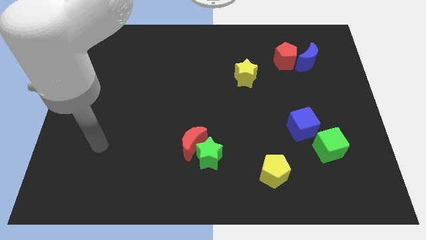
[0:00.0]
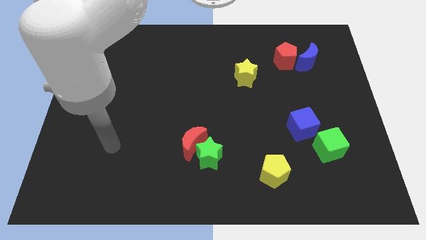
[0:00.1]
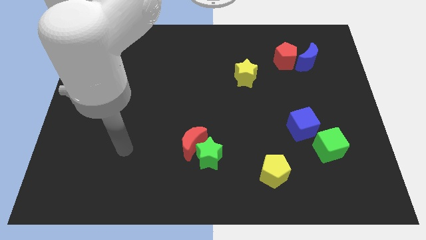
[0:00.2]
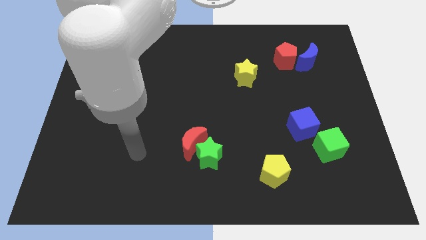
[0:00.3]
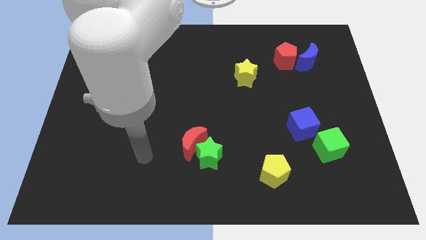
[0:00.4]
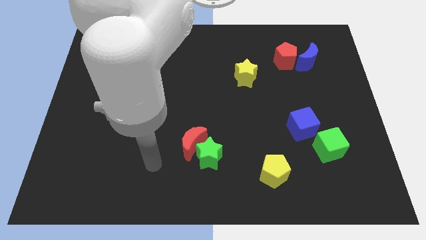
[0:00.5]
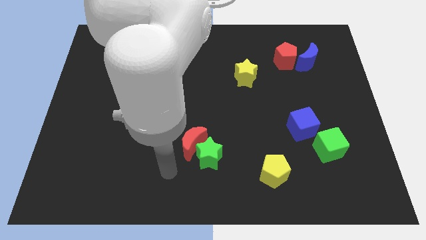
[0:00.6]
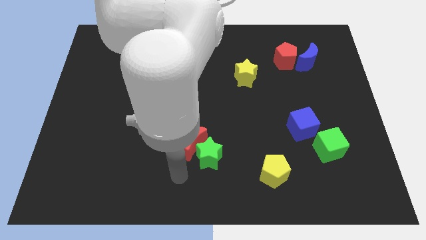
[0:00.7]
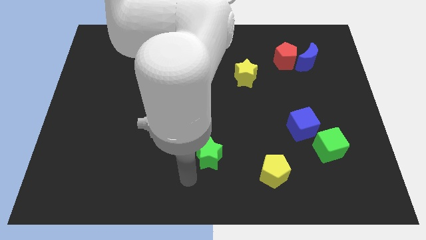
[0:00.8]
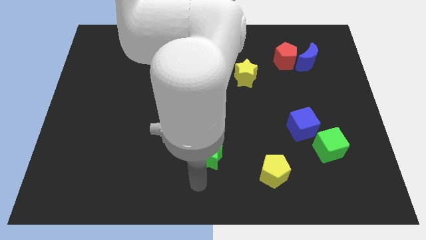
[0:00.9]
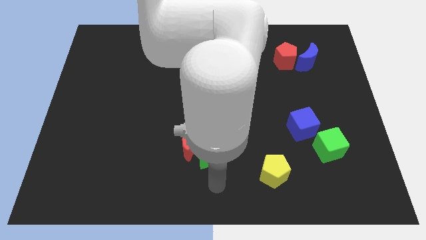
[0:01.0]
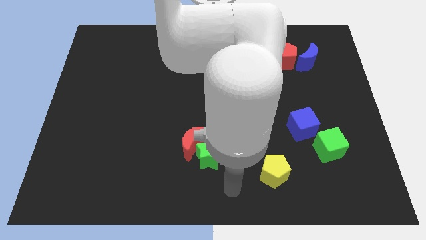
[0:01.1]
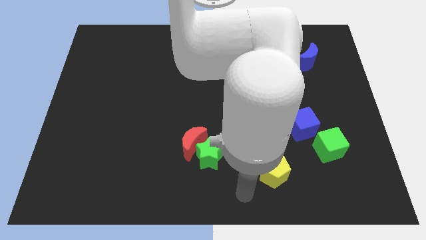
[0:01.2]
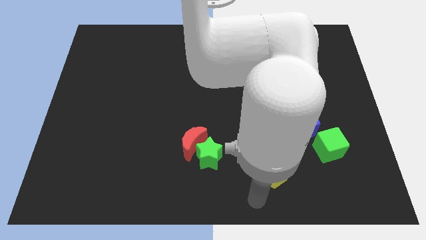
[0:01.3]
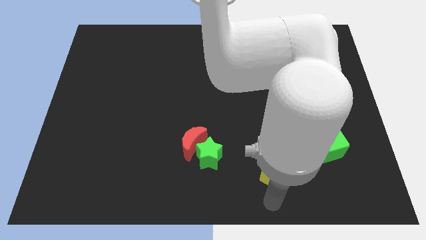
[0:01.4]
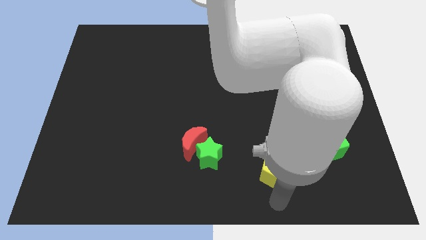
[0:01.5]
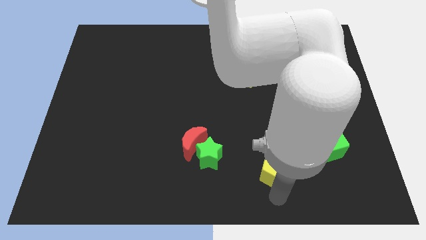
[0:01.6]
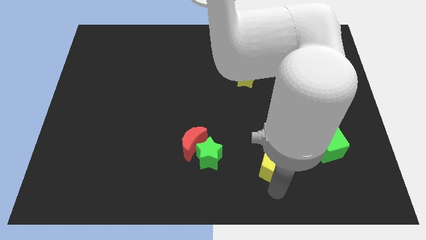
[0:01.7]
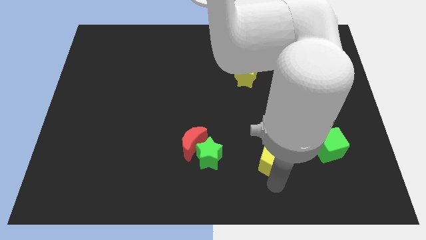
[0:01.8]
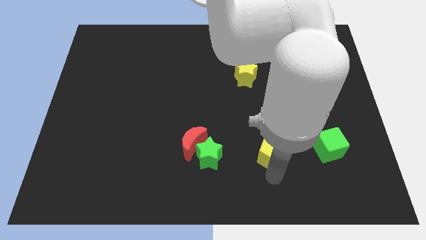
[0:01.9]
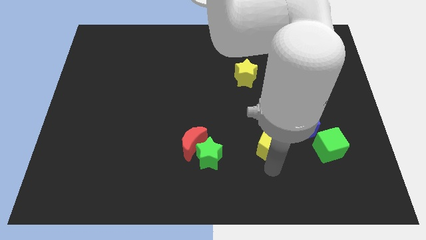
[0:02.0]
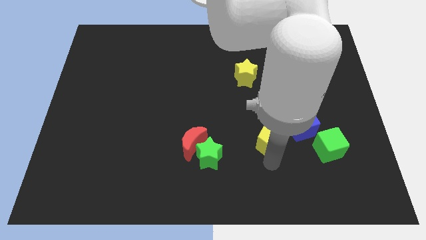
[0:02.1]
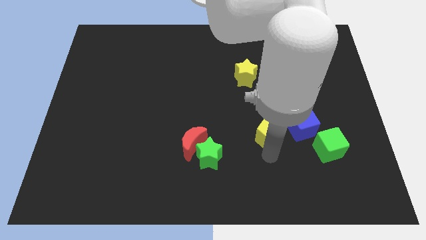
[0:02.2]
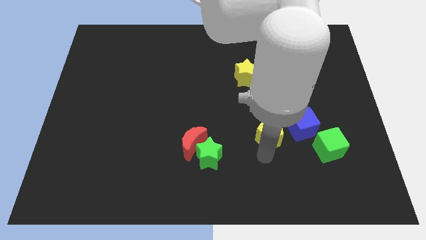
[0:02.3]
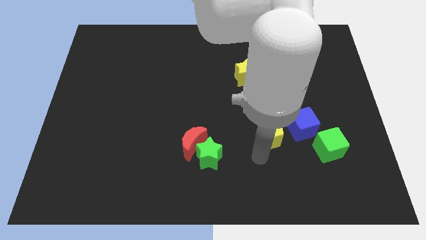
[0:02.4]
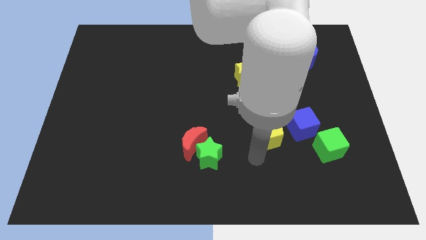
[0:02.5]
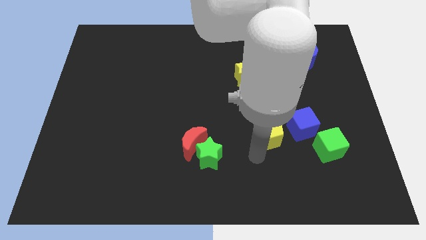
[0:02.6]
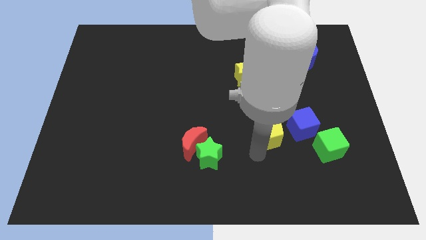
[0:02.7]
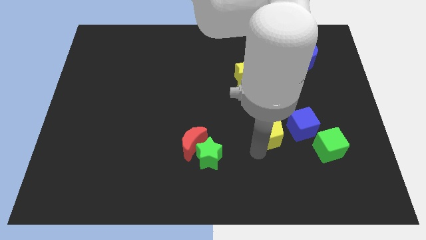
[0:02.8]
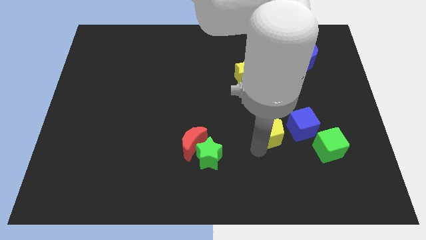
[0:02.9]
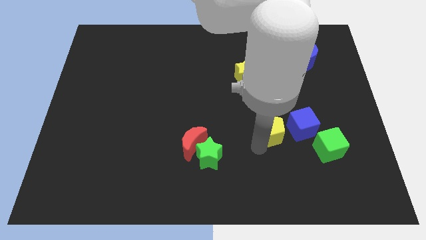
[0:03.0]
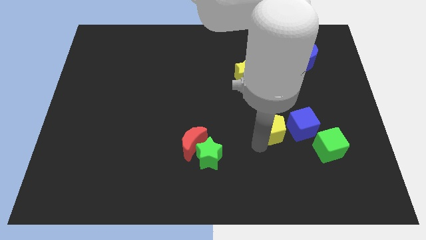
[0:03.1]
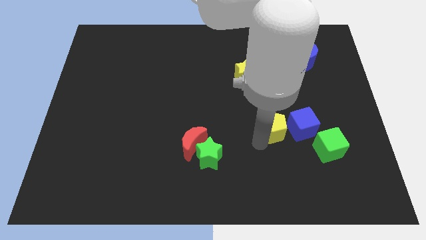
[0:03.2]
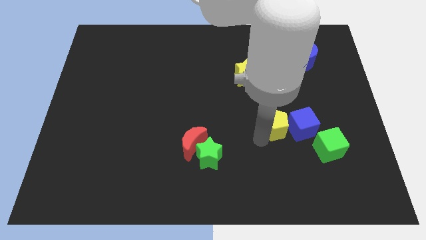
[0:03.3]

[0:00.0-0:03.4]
slightly push the yellow pentagon upwards and right

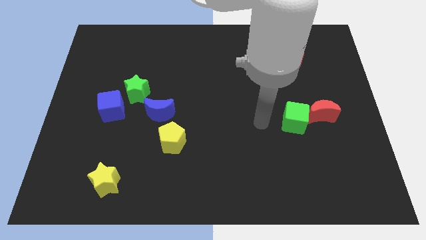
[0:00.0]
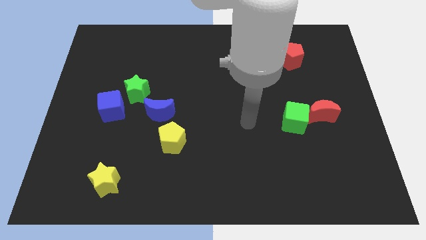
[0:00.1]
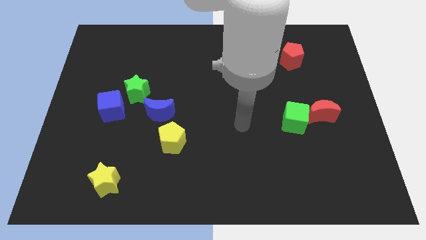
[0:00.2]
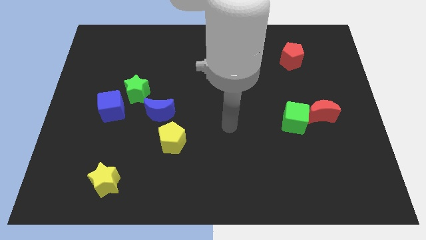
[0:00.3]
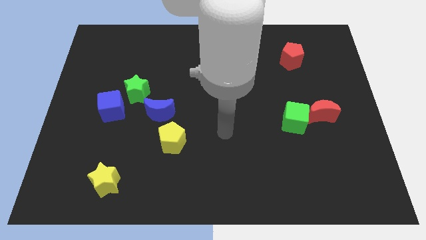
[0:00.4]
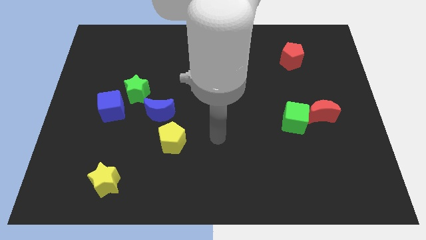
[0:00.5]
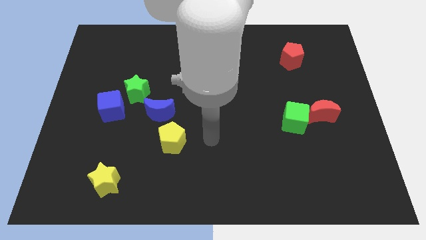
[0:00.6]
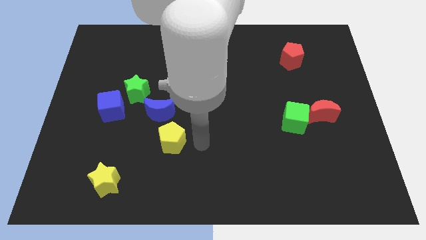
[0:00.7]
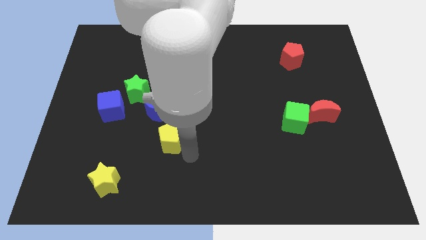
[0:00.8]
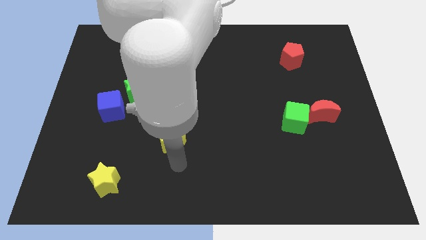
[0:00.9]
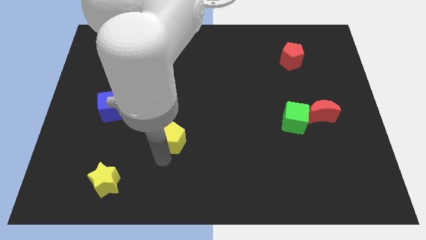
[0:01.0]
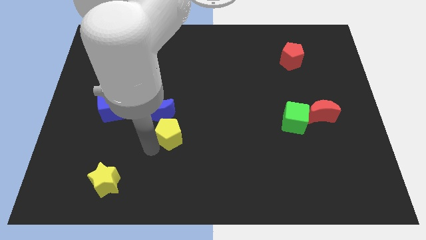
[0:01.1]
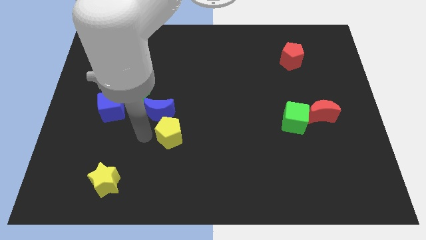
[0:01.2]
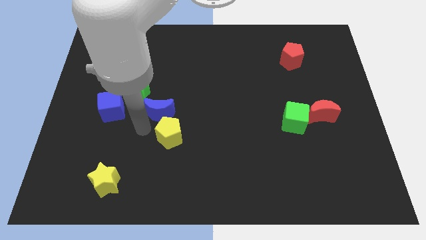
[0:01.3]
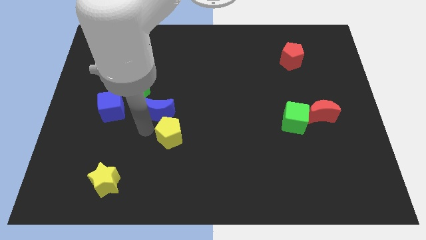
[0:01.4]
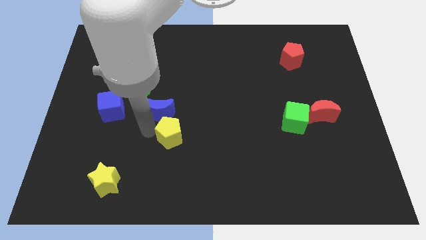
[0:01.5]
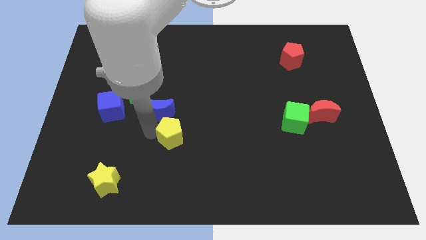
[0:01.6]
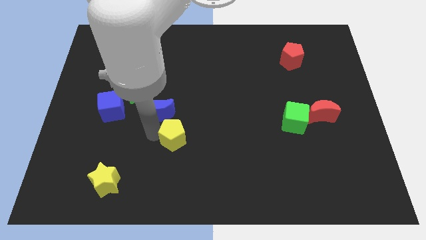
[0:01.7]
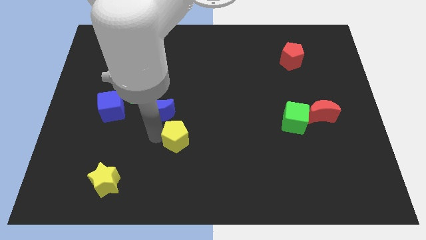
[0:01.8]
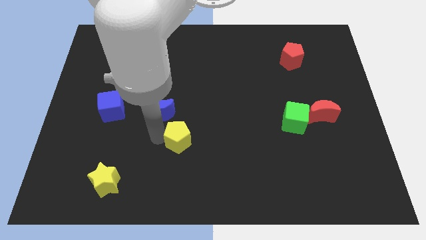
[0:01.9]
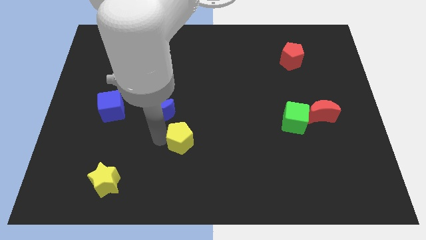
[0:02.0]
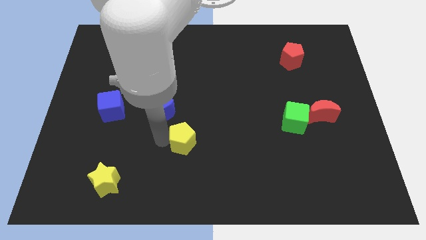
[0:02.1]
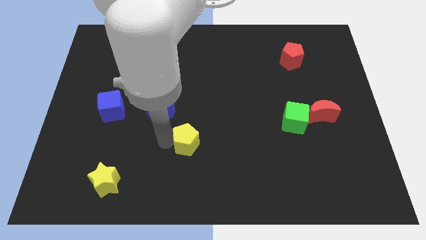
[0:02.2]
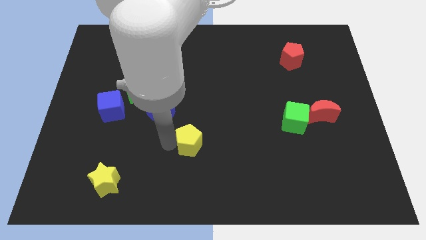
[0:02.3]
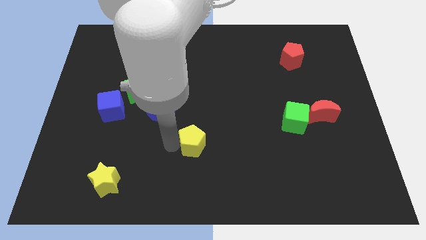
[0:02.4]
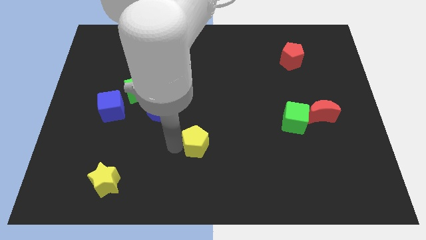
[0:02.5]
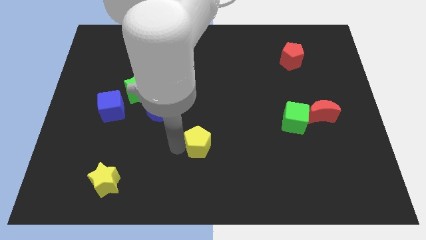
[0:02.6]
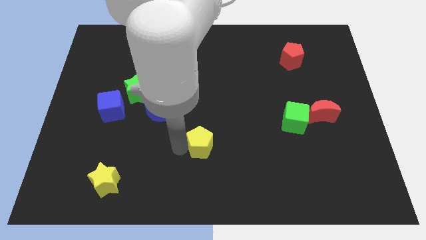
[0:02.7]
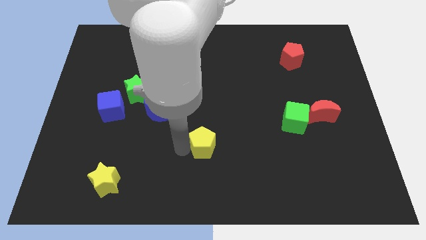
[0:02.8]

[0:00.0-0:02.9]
push the yellow pentagon somewhat right

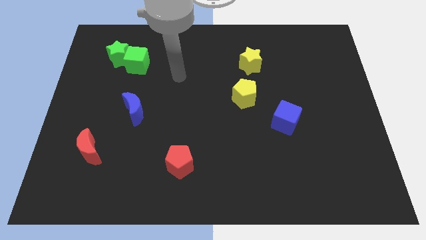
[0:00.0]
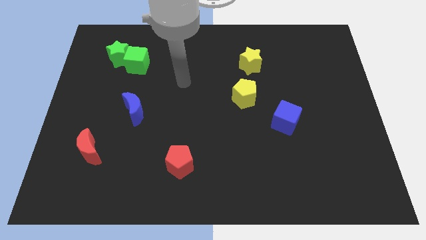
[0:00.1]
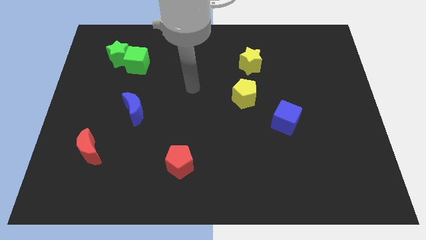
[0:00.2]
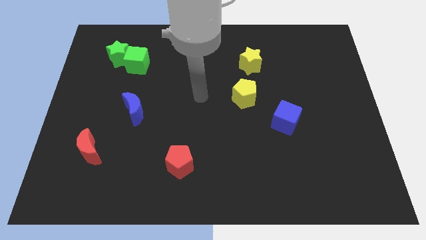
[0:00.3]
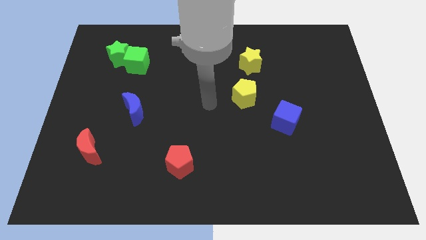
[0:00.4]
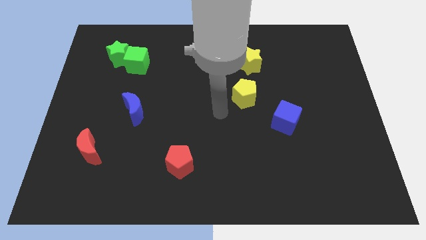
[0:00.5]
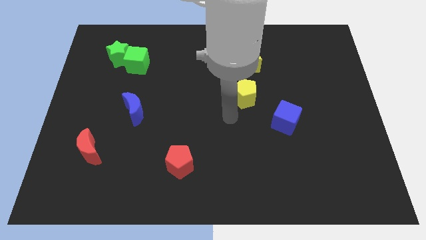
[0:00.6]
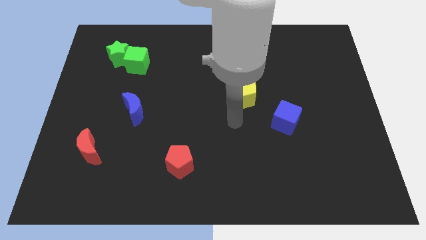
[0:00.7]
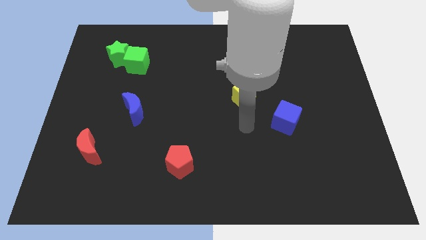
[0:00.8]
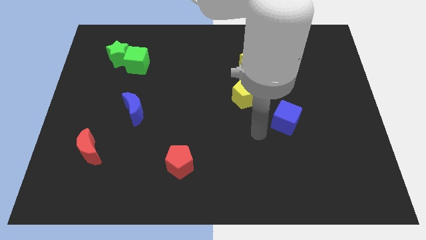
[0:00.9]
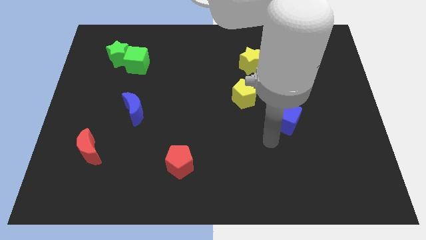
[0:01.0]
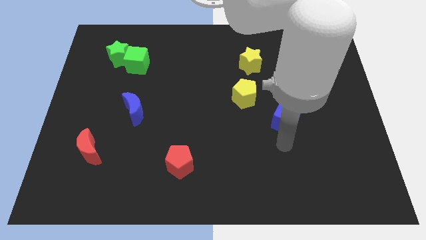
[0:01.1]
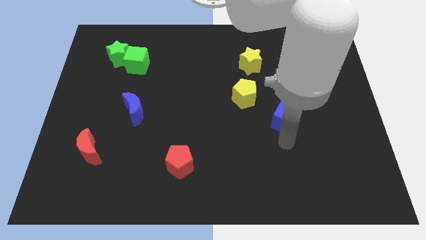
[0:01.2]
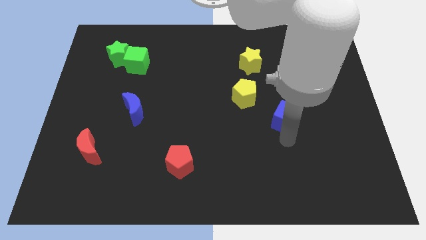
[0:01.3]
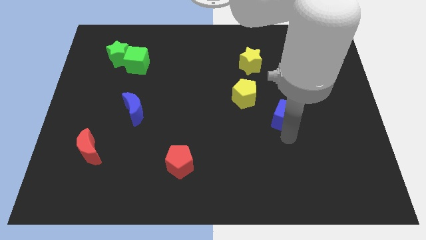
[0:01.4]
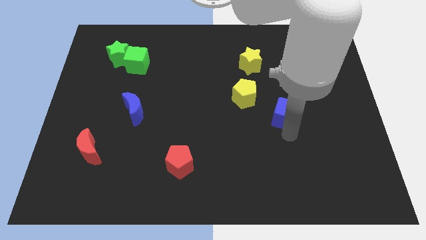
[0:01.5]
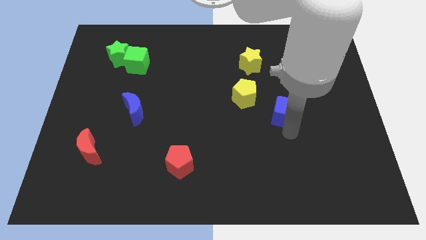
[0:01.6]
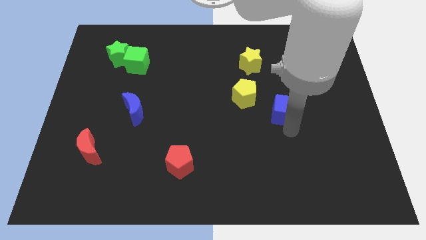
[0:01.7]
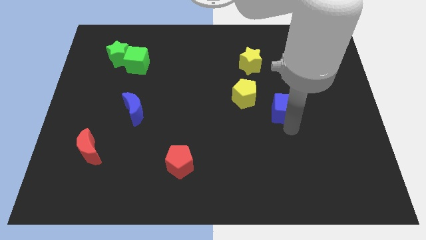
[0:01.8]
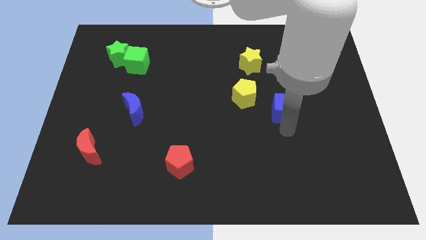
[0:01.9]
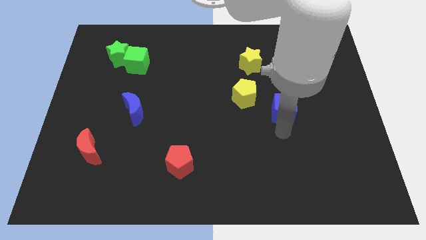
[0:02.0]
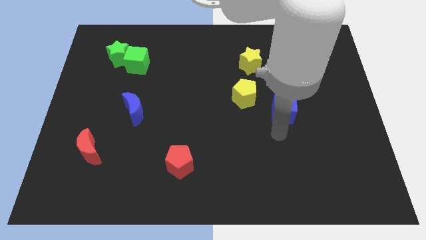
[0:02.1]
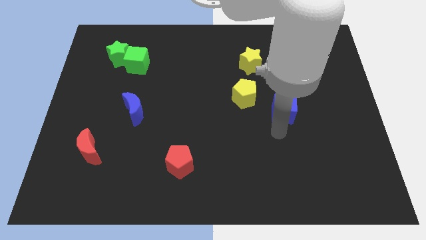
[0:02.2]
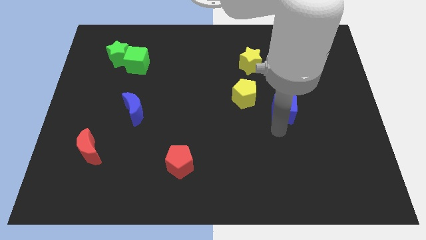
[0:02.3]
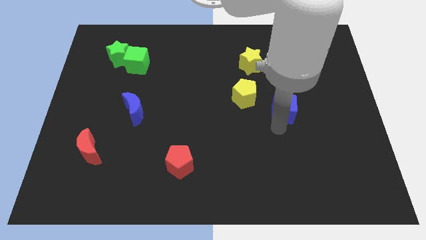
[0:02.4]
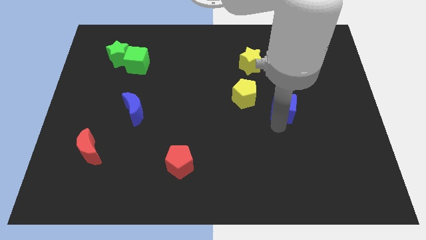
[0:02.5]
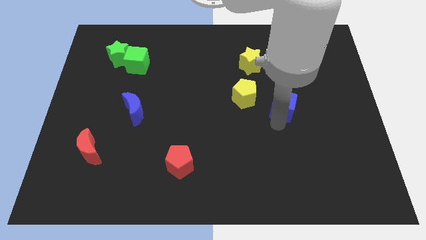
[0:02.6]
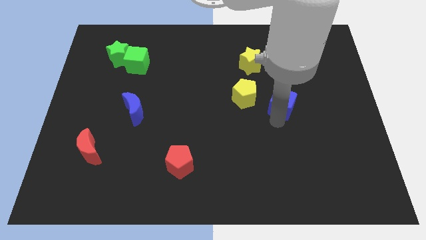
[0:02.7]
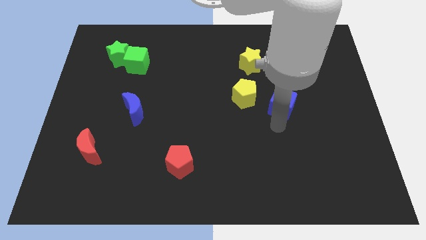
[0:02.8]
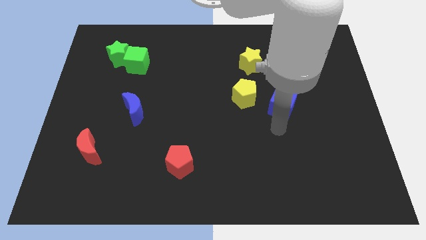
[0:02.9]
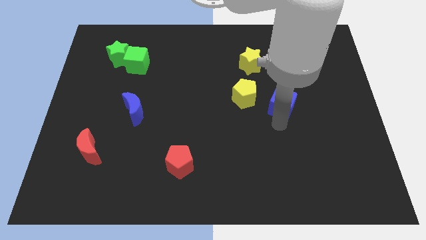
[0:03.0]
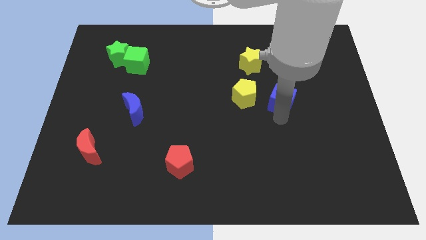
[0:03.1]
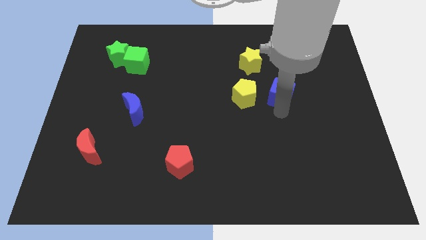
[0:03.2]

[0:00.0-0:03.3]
slightly push the blue cube upwards
